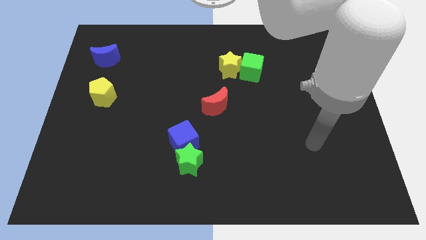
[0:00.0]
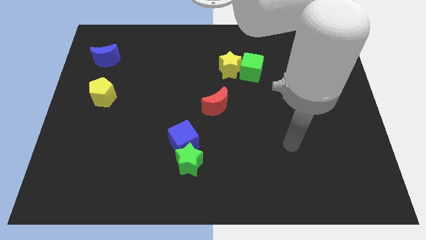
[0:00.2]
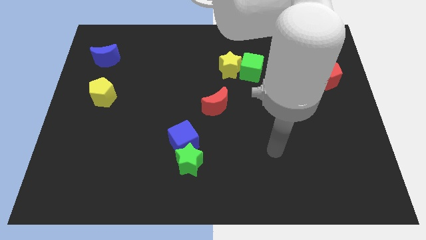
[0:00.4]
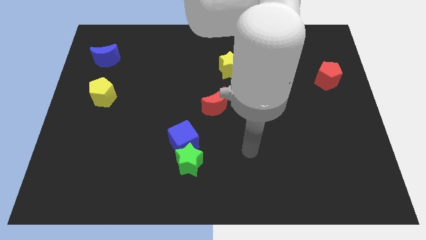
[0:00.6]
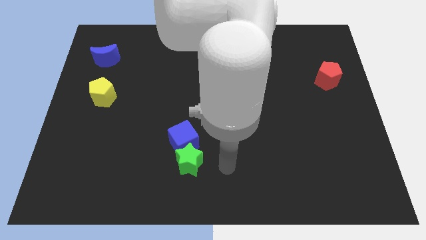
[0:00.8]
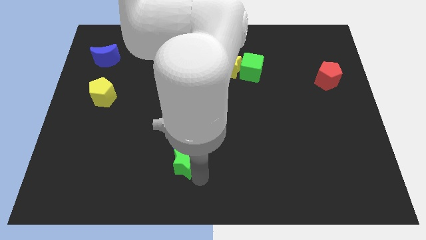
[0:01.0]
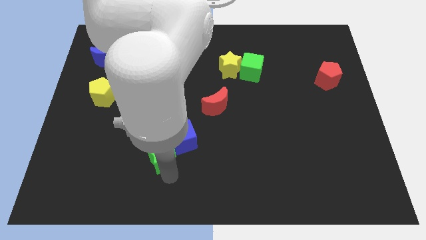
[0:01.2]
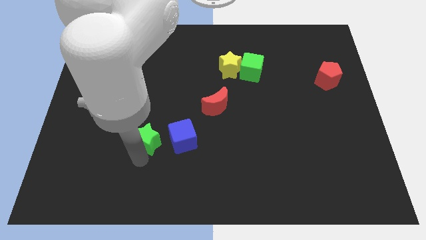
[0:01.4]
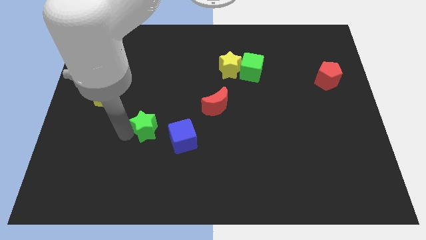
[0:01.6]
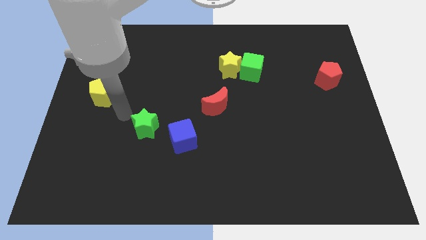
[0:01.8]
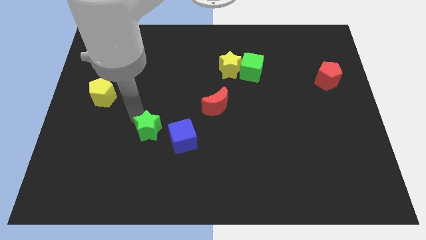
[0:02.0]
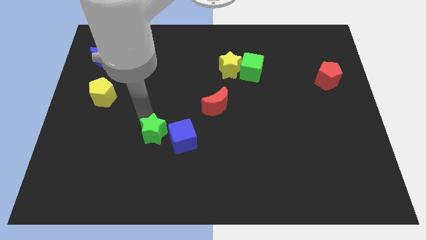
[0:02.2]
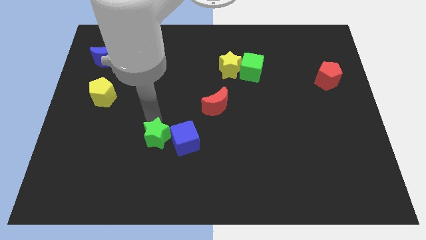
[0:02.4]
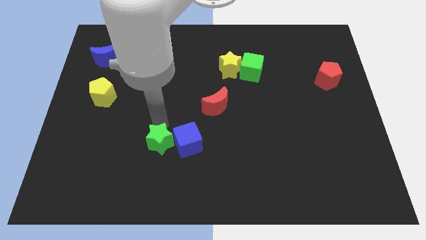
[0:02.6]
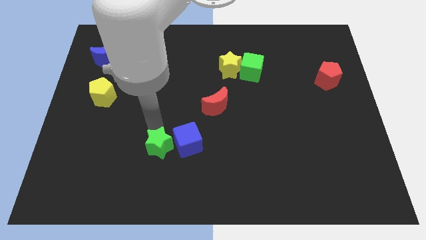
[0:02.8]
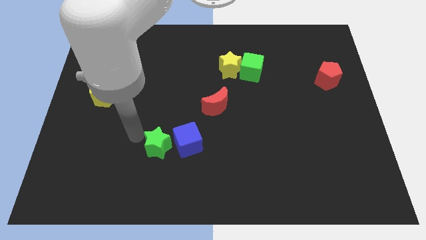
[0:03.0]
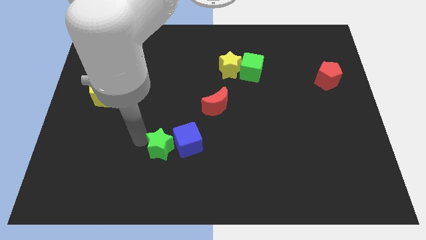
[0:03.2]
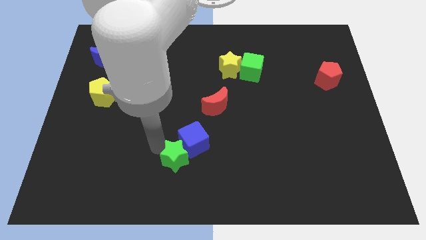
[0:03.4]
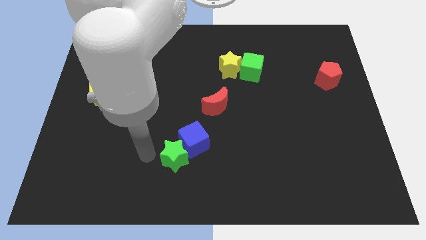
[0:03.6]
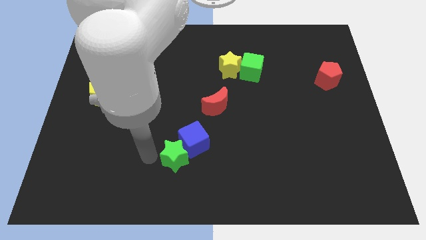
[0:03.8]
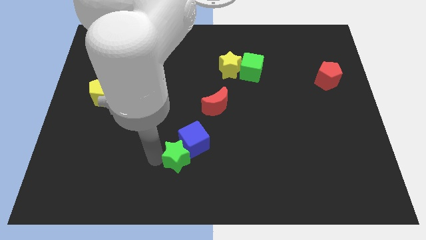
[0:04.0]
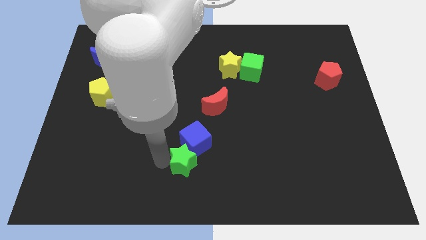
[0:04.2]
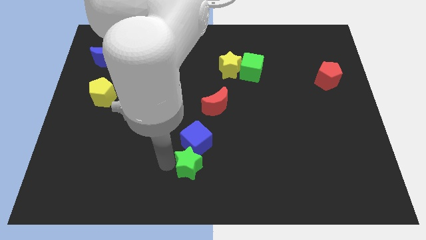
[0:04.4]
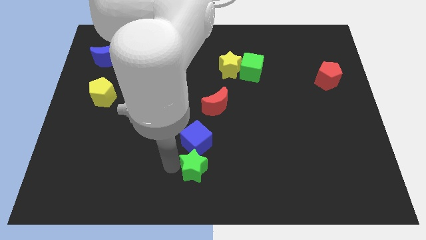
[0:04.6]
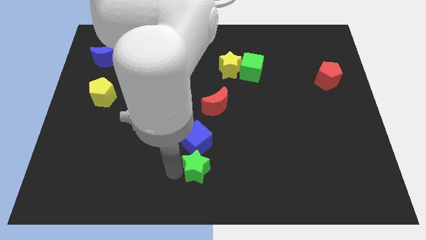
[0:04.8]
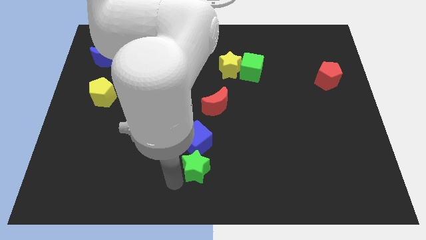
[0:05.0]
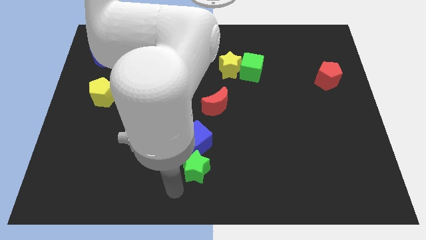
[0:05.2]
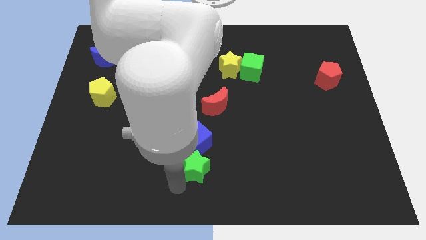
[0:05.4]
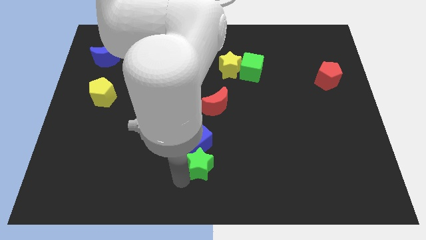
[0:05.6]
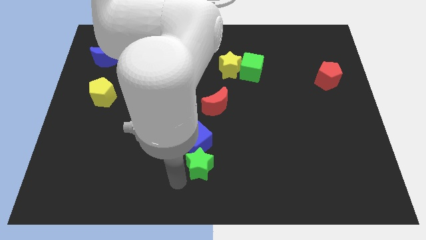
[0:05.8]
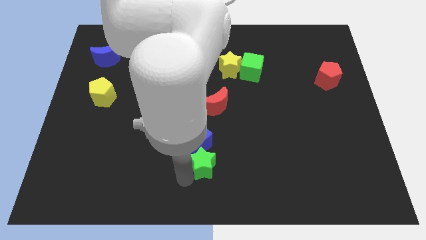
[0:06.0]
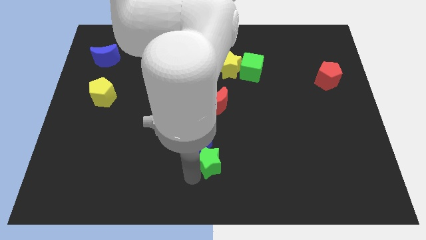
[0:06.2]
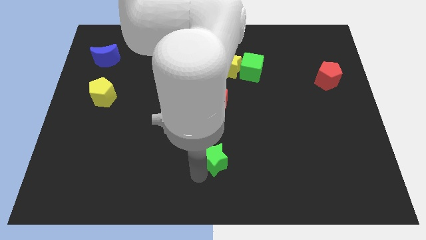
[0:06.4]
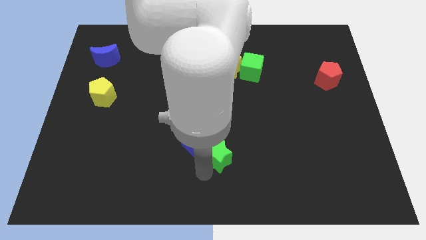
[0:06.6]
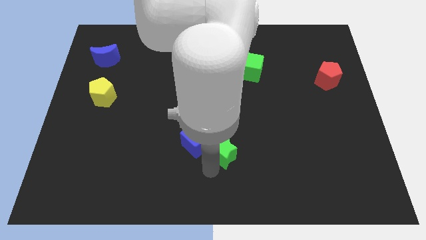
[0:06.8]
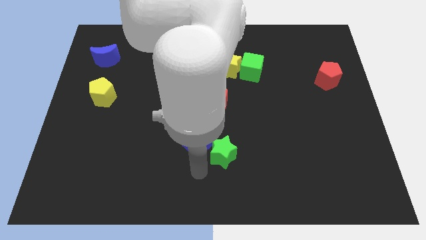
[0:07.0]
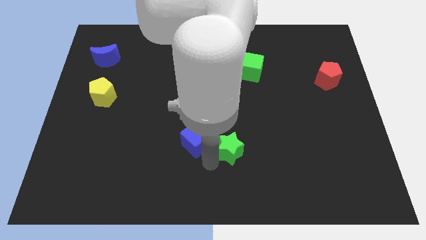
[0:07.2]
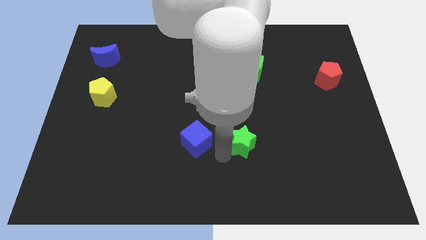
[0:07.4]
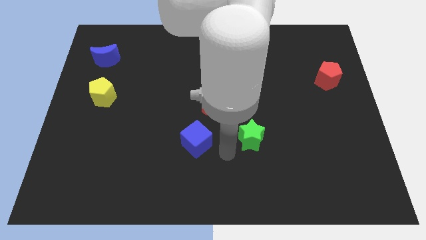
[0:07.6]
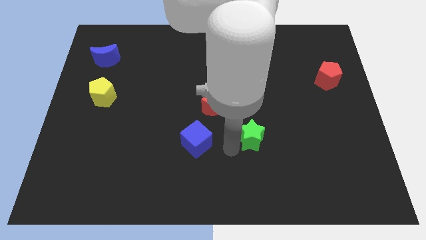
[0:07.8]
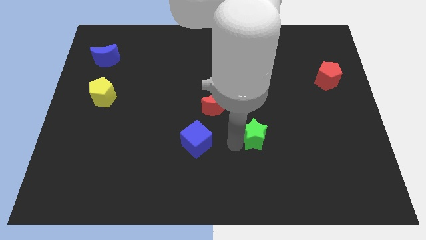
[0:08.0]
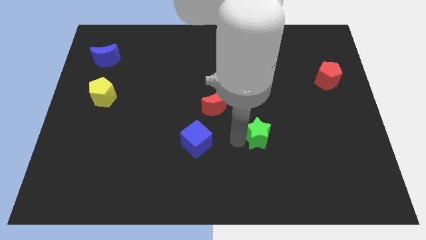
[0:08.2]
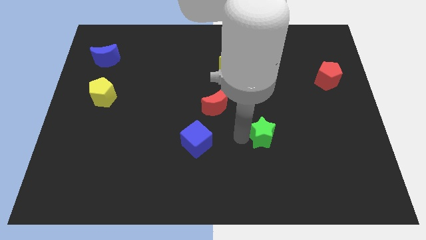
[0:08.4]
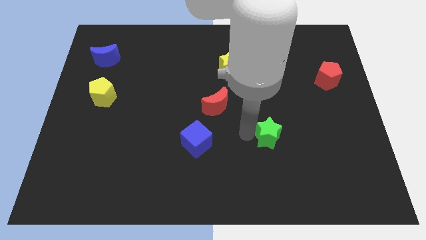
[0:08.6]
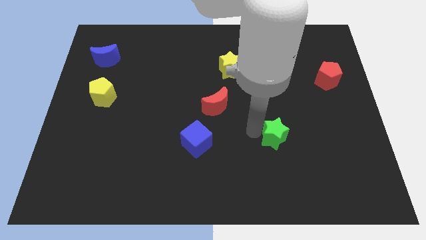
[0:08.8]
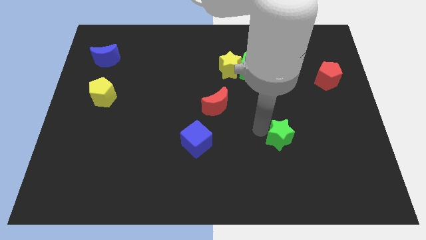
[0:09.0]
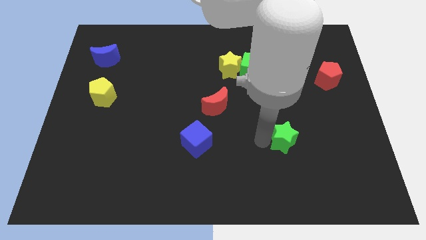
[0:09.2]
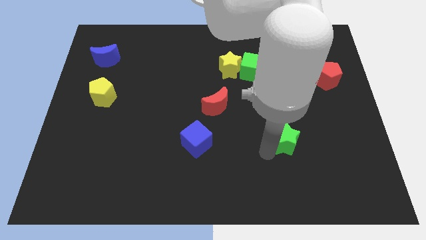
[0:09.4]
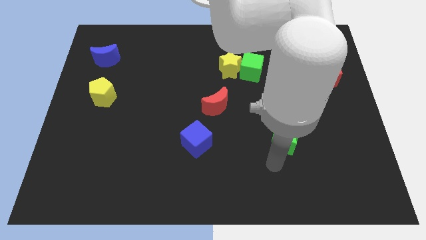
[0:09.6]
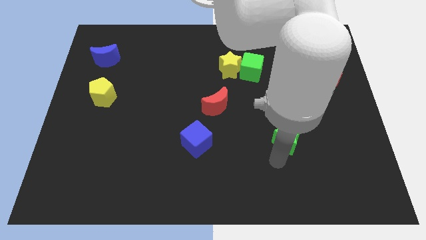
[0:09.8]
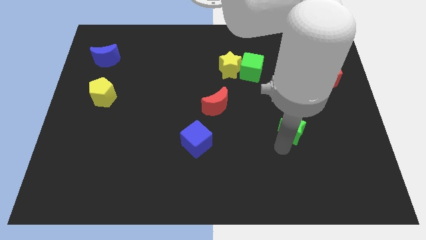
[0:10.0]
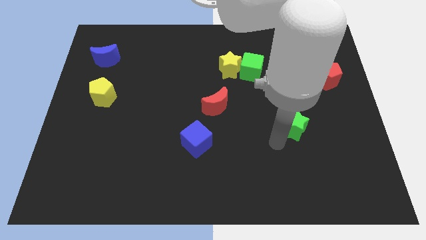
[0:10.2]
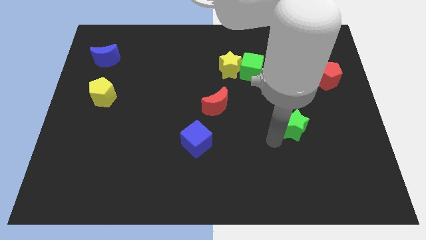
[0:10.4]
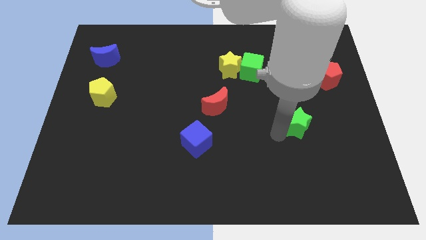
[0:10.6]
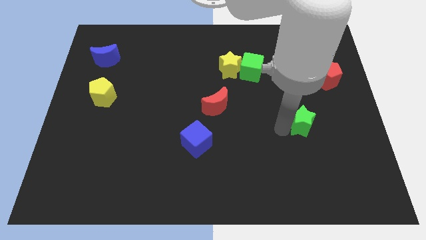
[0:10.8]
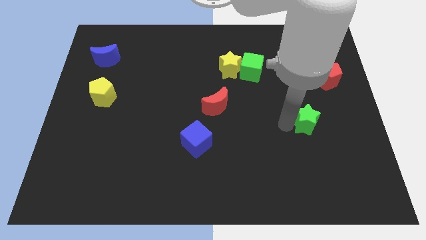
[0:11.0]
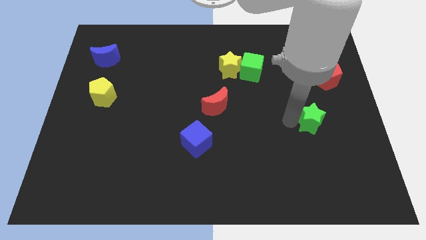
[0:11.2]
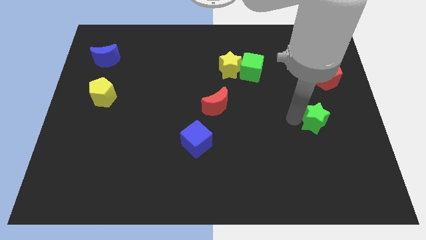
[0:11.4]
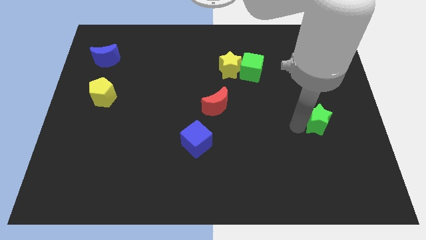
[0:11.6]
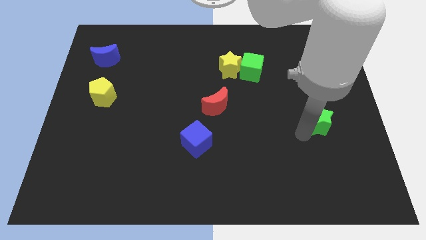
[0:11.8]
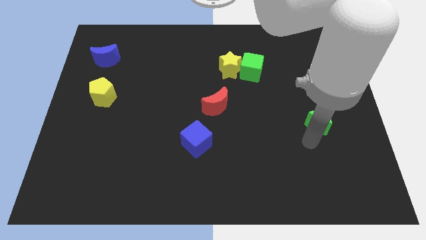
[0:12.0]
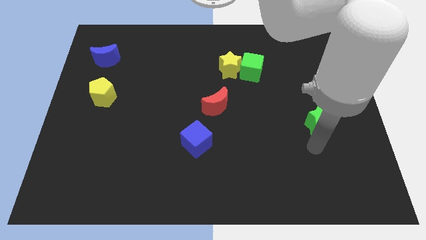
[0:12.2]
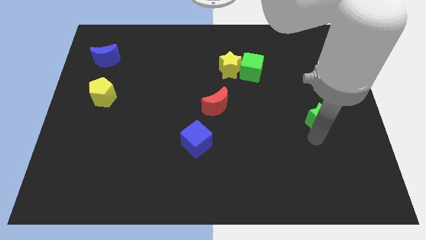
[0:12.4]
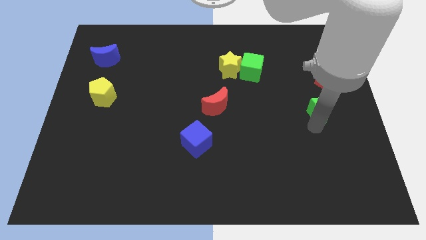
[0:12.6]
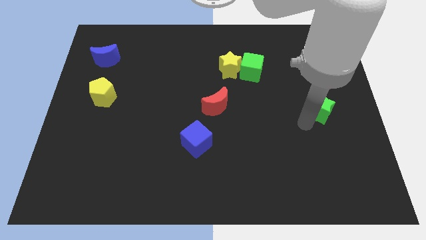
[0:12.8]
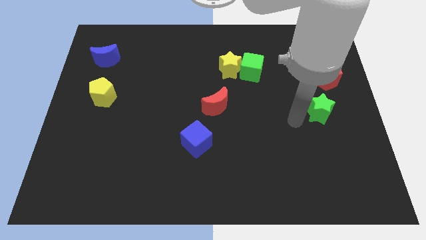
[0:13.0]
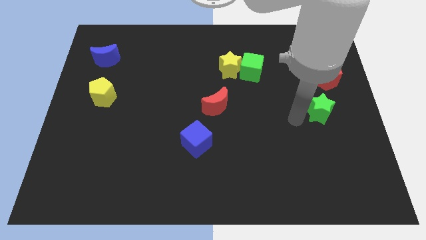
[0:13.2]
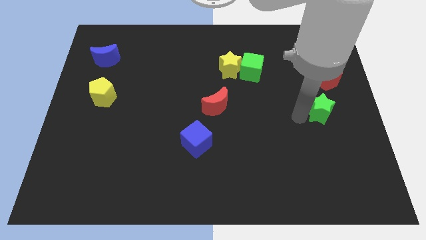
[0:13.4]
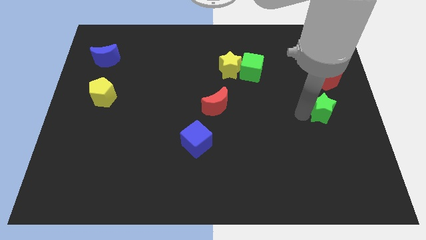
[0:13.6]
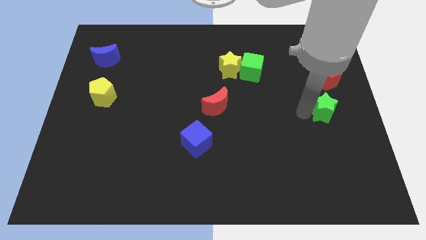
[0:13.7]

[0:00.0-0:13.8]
push the green star to the center right
